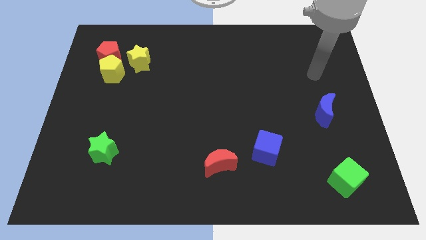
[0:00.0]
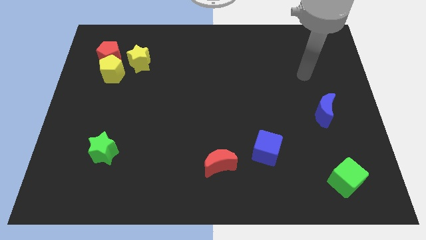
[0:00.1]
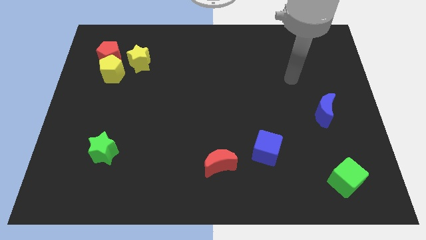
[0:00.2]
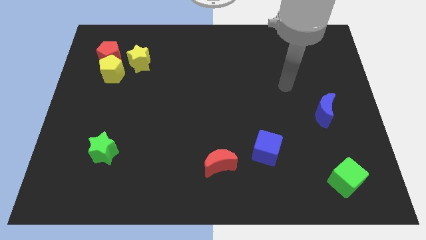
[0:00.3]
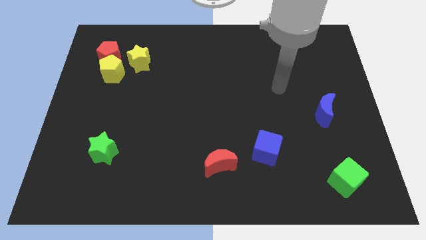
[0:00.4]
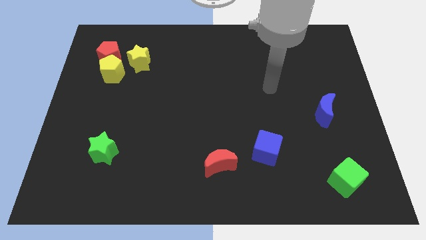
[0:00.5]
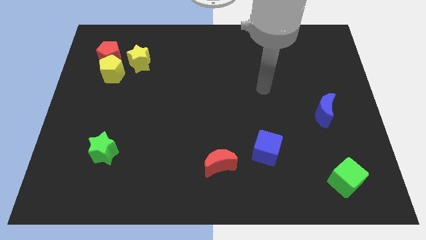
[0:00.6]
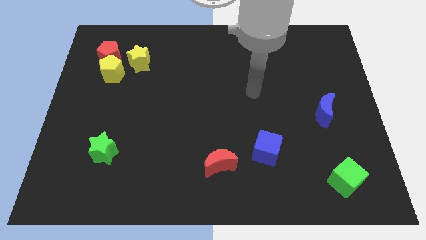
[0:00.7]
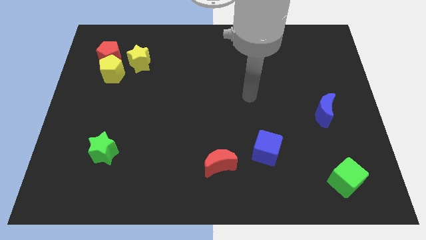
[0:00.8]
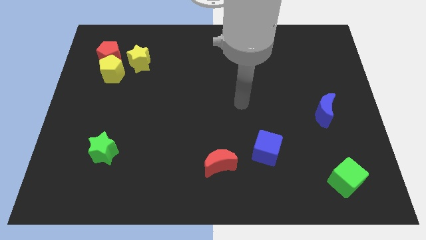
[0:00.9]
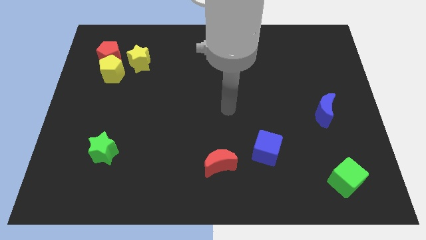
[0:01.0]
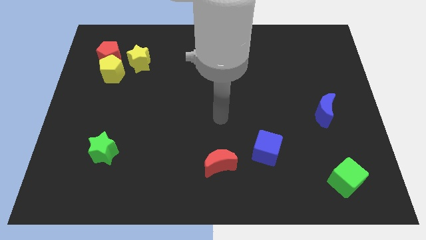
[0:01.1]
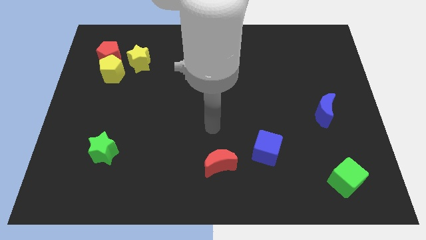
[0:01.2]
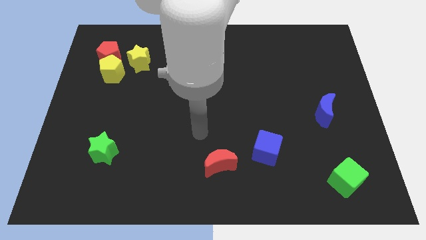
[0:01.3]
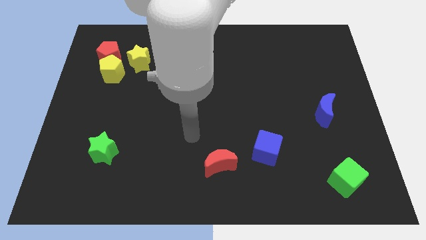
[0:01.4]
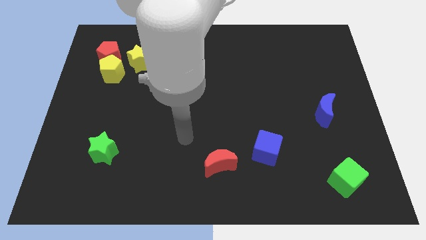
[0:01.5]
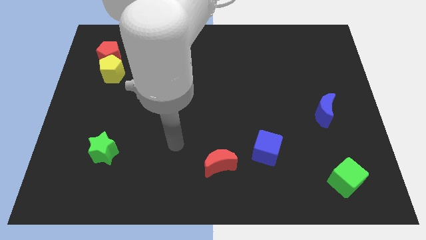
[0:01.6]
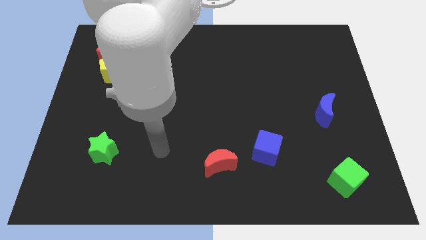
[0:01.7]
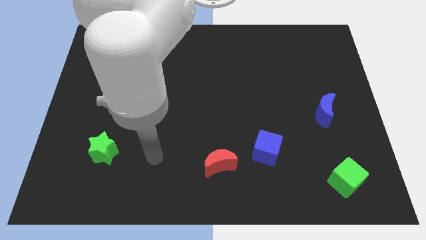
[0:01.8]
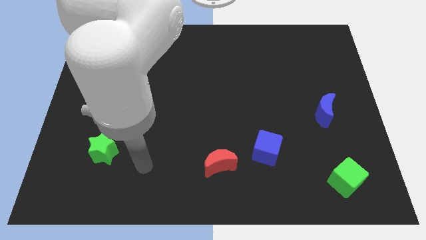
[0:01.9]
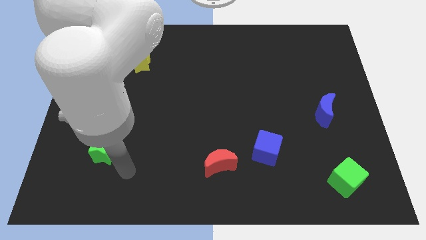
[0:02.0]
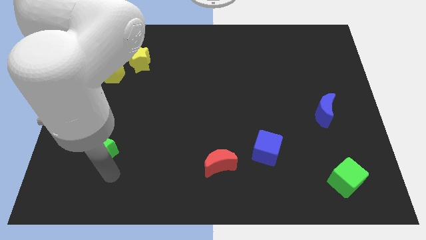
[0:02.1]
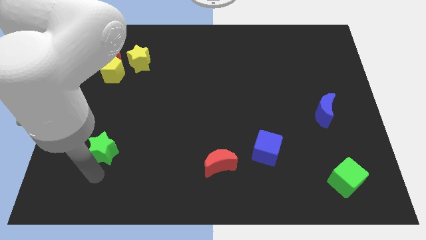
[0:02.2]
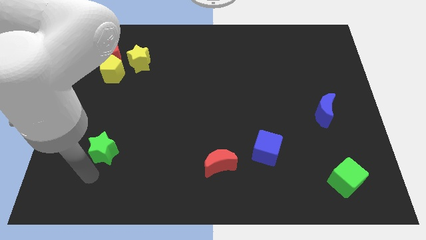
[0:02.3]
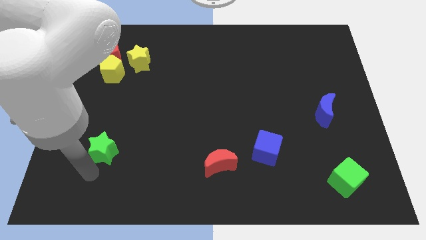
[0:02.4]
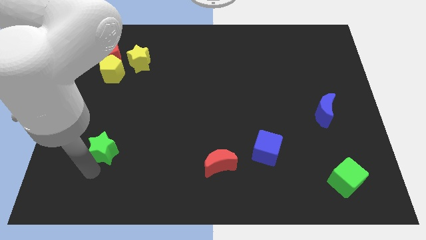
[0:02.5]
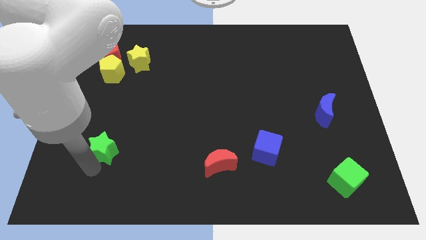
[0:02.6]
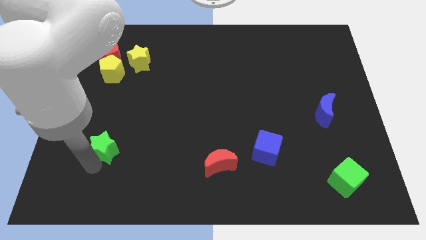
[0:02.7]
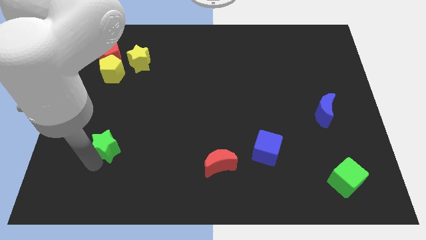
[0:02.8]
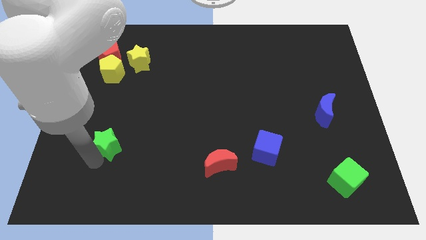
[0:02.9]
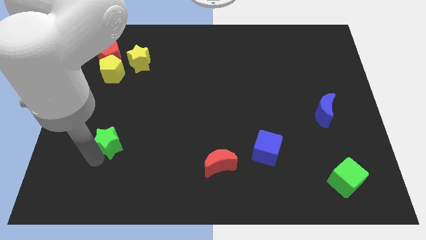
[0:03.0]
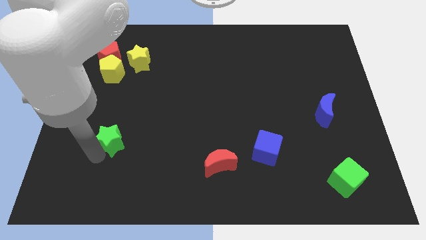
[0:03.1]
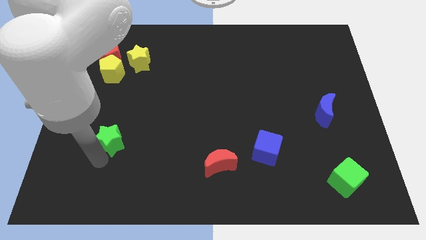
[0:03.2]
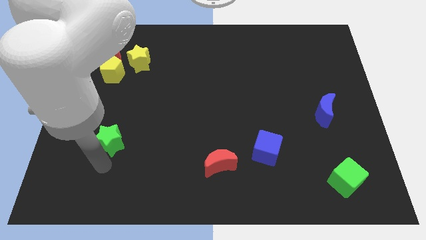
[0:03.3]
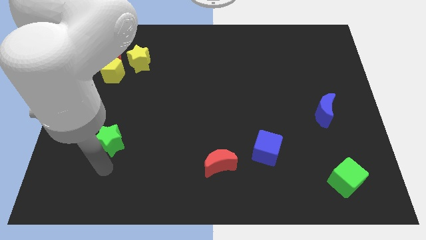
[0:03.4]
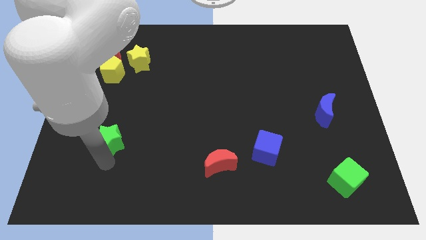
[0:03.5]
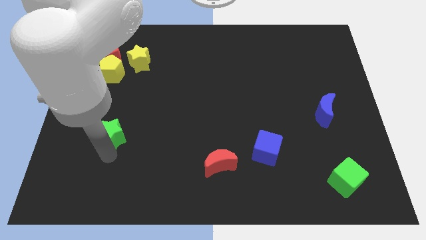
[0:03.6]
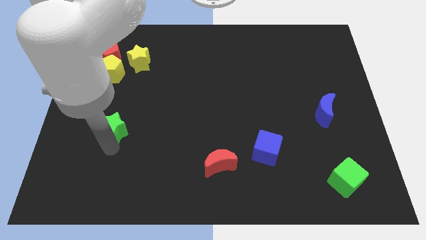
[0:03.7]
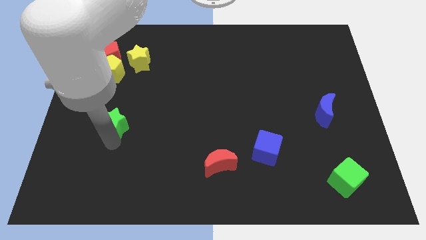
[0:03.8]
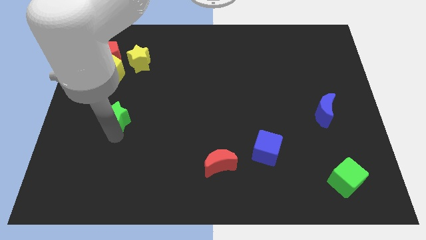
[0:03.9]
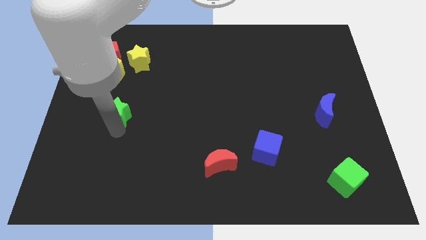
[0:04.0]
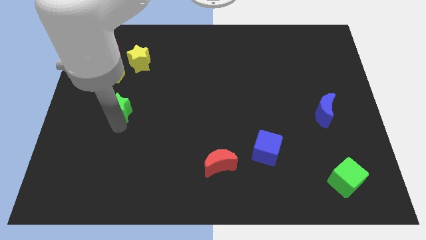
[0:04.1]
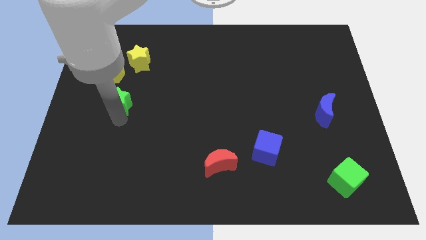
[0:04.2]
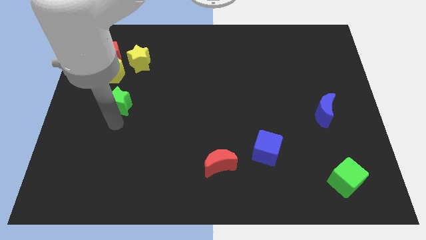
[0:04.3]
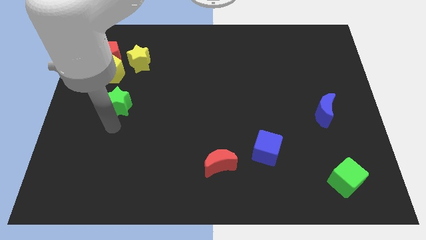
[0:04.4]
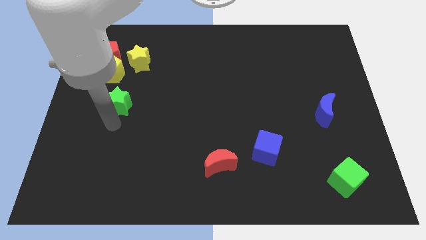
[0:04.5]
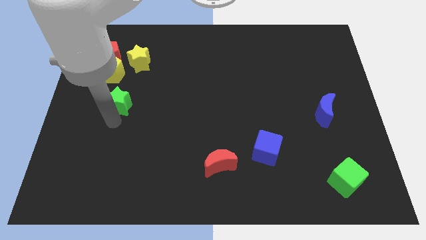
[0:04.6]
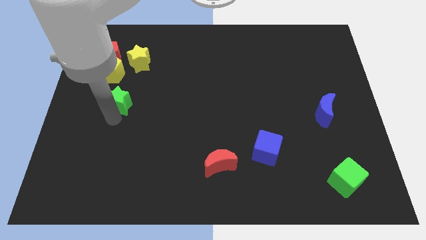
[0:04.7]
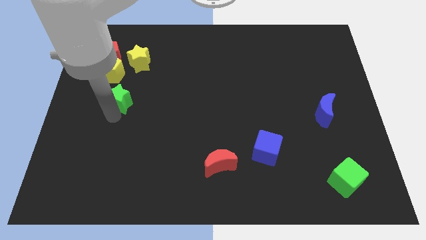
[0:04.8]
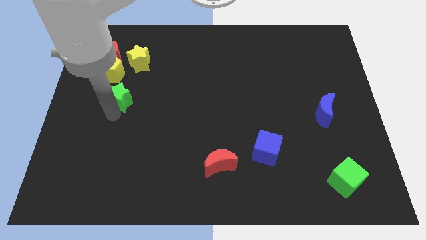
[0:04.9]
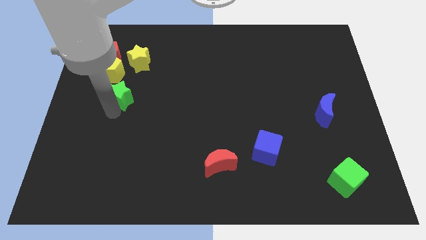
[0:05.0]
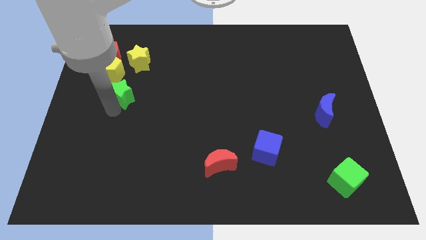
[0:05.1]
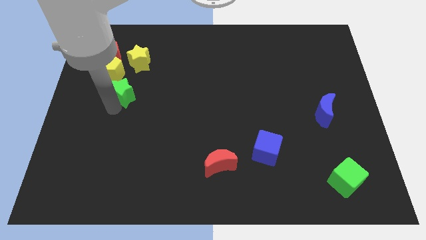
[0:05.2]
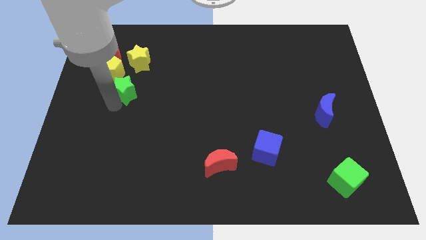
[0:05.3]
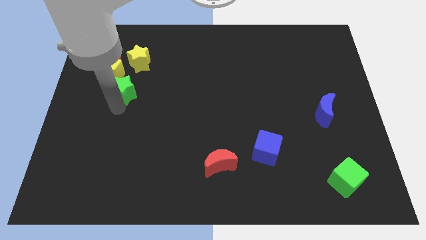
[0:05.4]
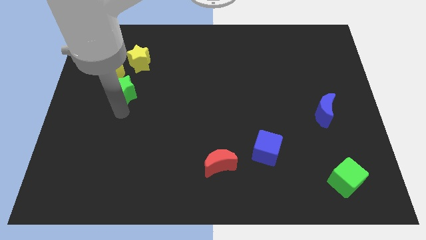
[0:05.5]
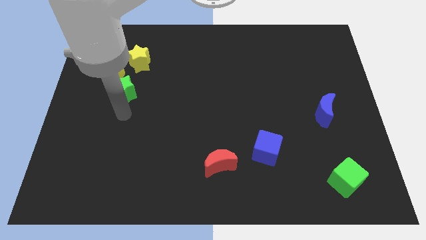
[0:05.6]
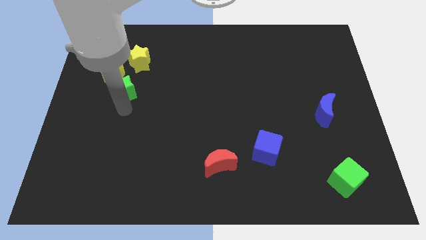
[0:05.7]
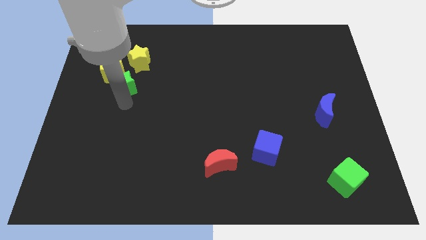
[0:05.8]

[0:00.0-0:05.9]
put the green star to the bottom right of the red pentagon

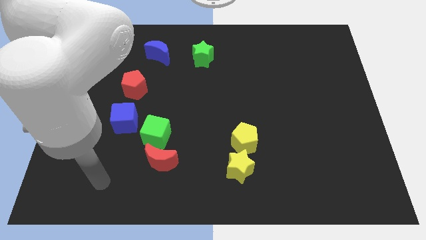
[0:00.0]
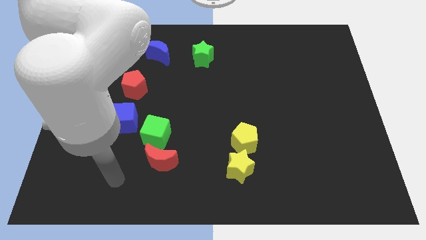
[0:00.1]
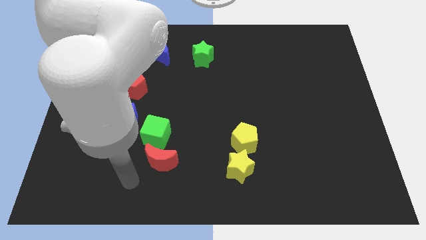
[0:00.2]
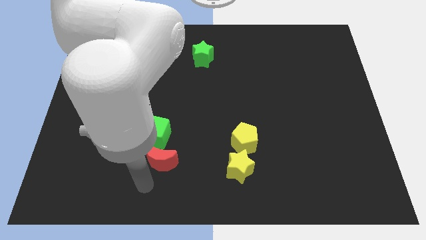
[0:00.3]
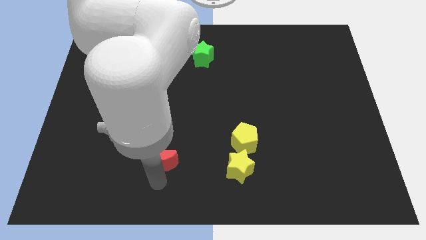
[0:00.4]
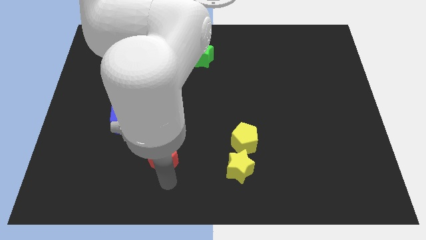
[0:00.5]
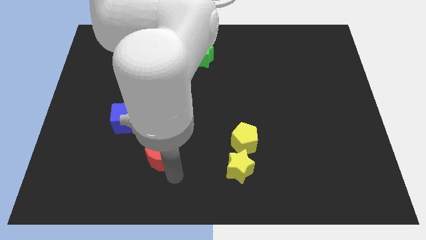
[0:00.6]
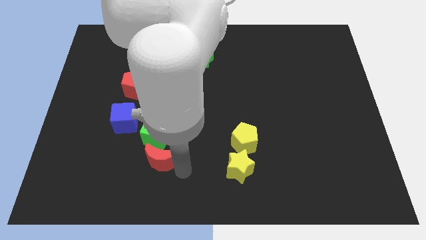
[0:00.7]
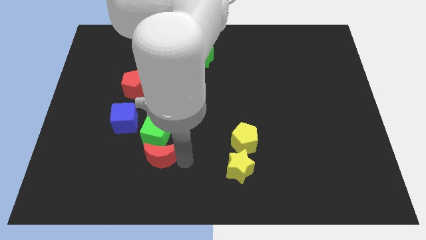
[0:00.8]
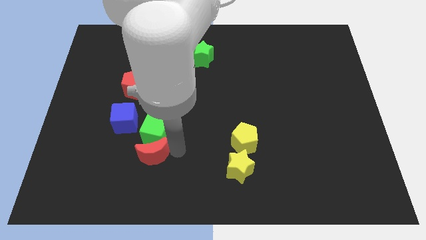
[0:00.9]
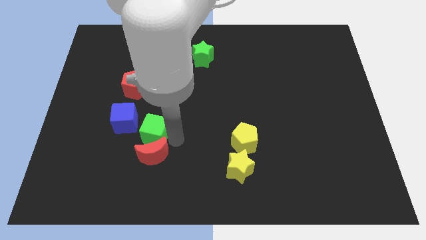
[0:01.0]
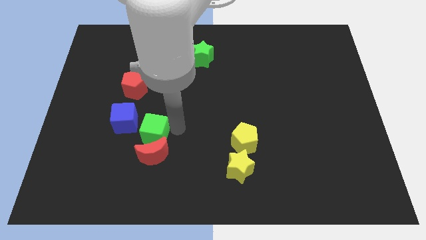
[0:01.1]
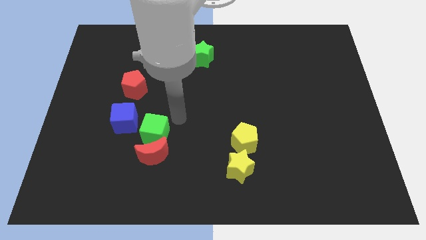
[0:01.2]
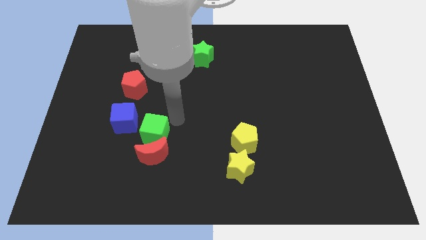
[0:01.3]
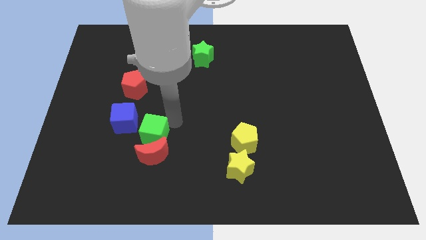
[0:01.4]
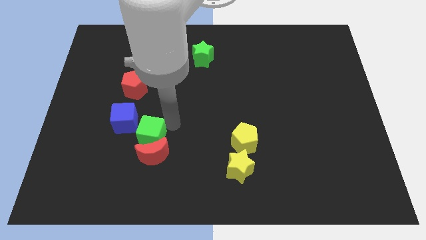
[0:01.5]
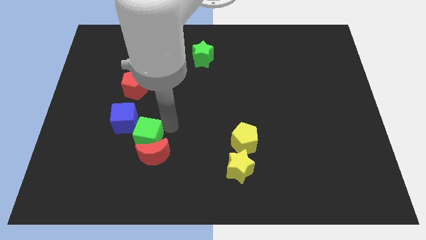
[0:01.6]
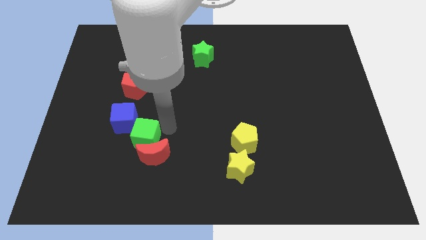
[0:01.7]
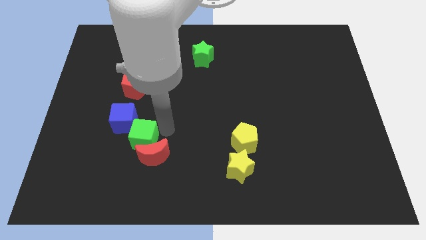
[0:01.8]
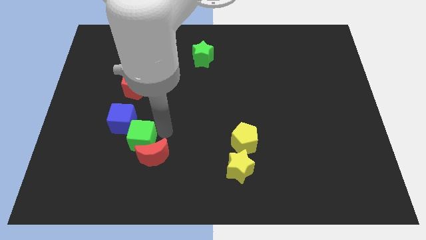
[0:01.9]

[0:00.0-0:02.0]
move the green cube left of the red moon
